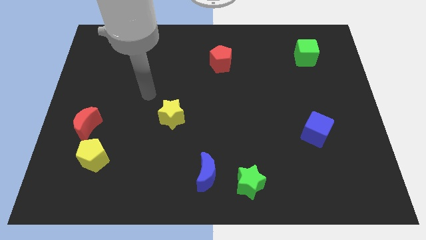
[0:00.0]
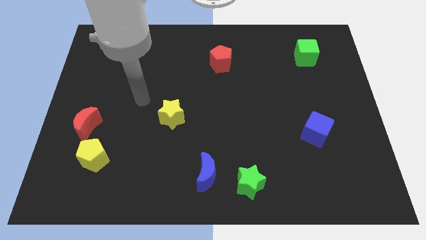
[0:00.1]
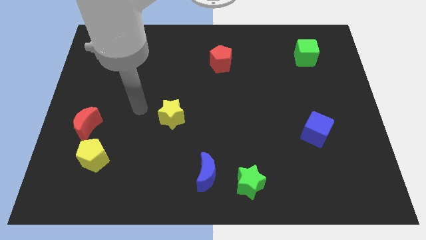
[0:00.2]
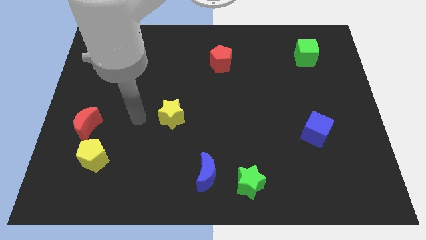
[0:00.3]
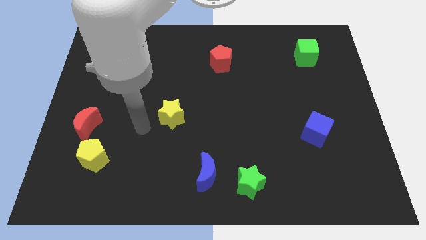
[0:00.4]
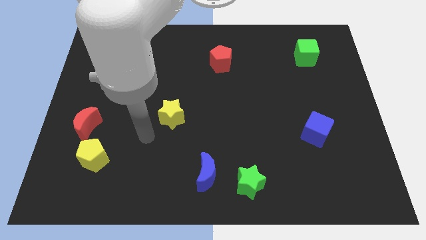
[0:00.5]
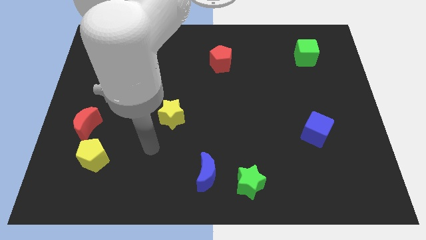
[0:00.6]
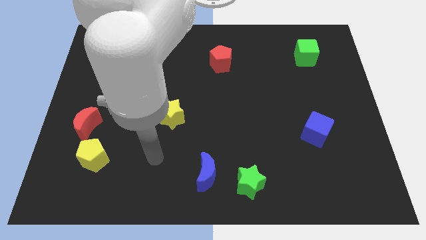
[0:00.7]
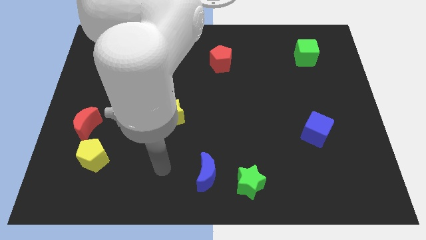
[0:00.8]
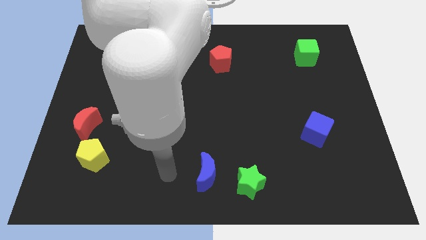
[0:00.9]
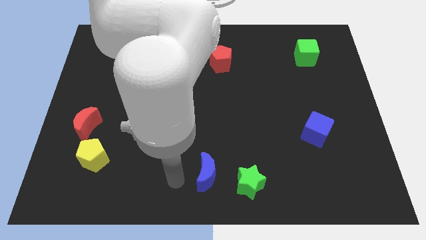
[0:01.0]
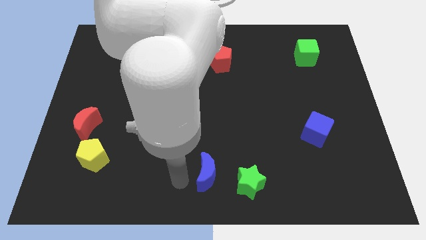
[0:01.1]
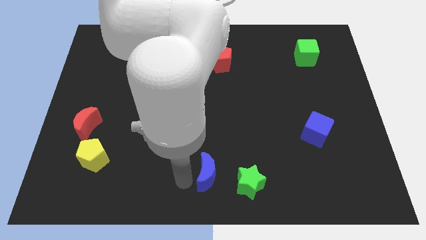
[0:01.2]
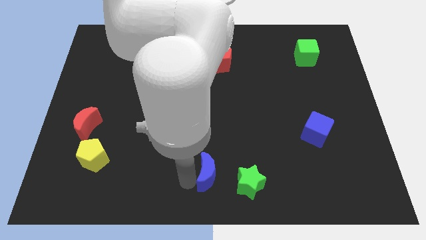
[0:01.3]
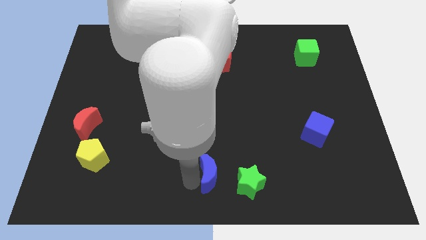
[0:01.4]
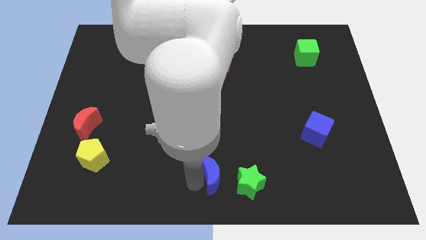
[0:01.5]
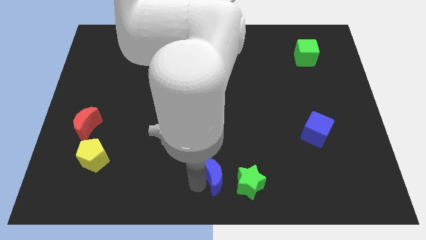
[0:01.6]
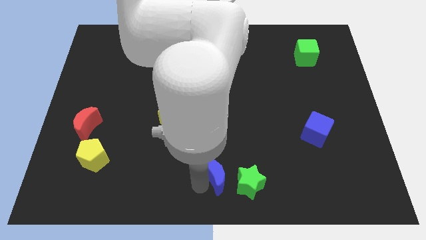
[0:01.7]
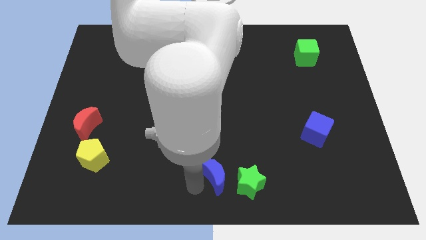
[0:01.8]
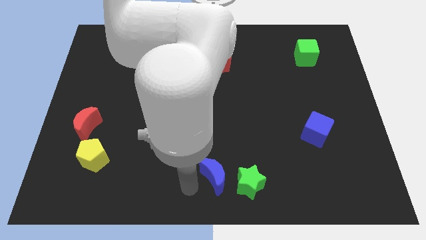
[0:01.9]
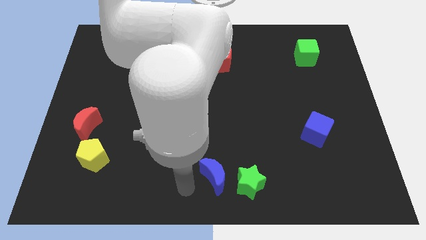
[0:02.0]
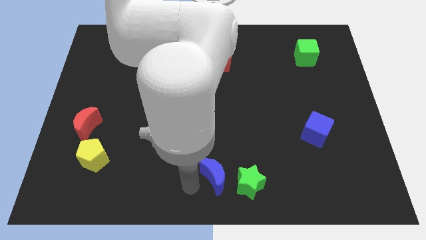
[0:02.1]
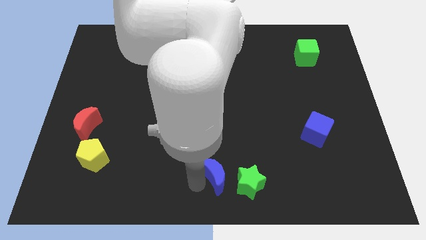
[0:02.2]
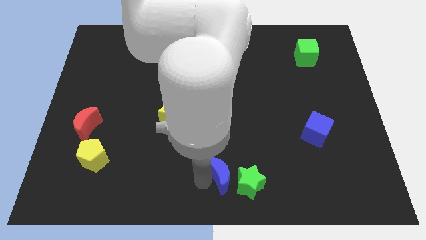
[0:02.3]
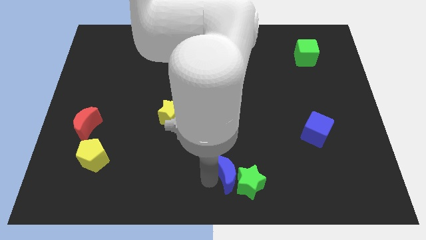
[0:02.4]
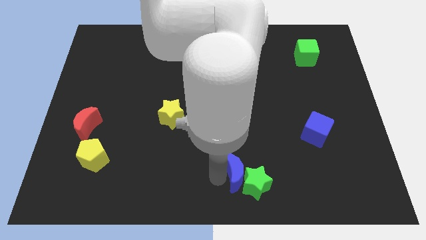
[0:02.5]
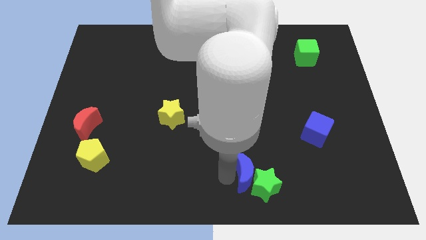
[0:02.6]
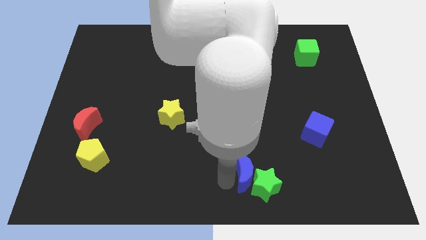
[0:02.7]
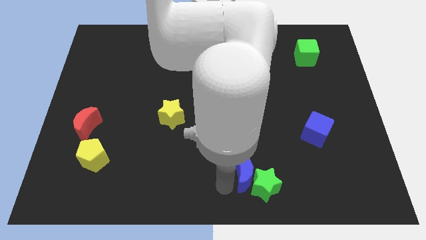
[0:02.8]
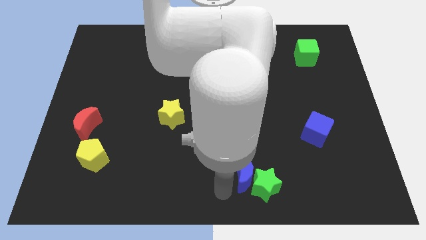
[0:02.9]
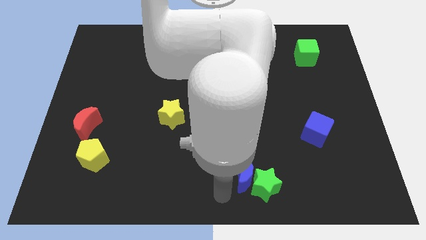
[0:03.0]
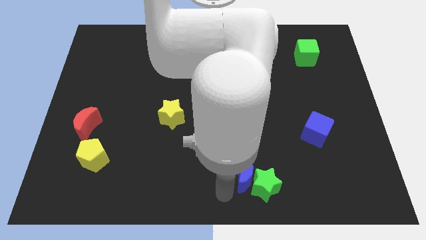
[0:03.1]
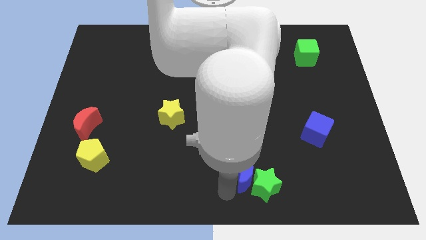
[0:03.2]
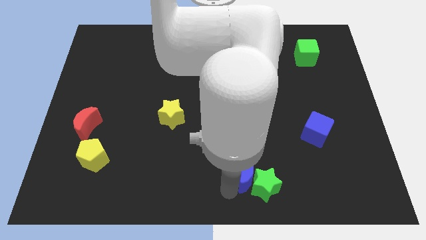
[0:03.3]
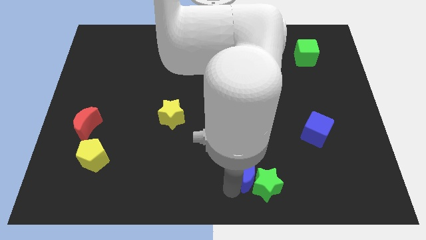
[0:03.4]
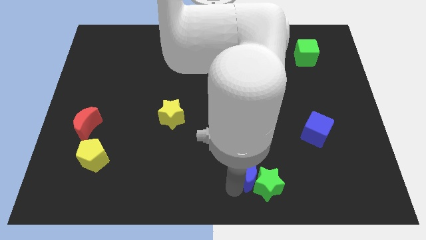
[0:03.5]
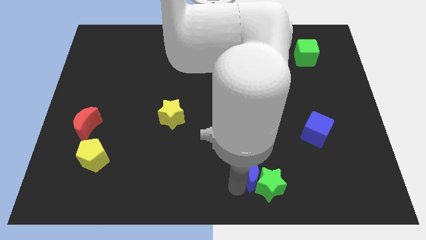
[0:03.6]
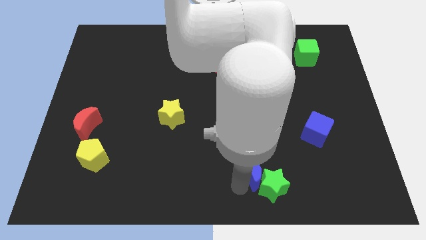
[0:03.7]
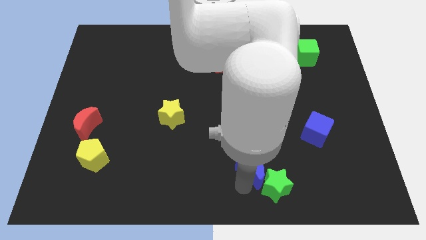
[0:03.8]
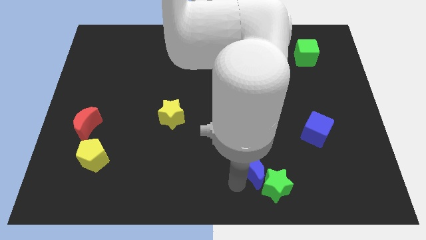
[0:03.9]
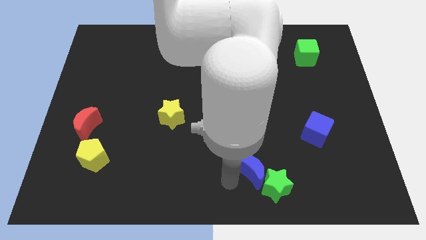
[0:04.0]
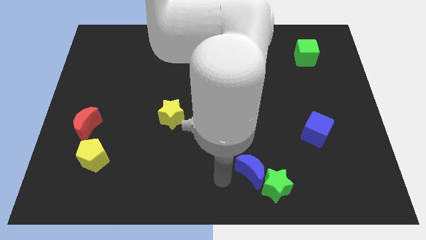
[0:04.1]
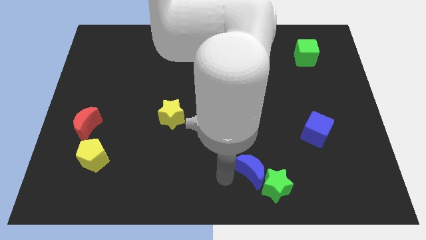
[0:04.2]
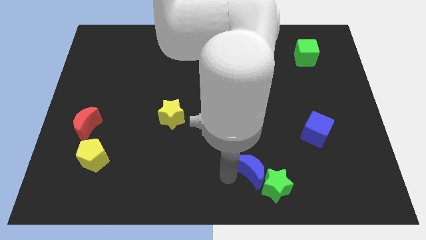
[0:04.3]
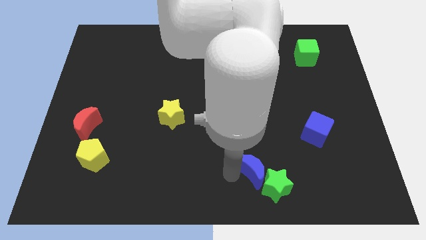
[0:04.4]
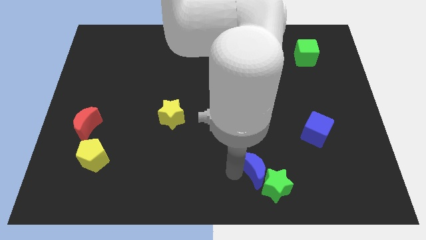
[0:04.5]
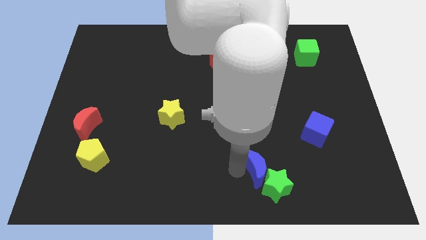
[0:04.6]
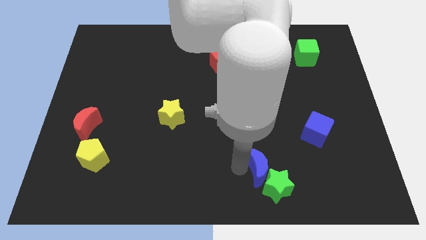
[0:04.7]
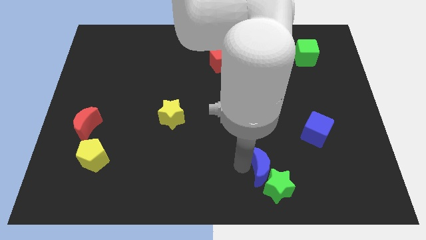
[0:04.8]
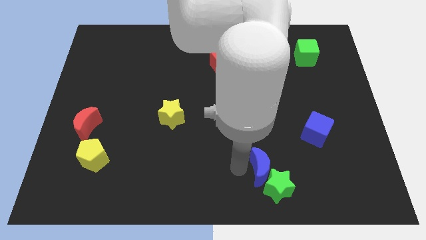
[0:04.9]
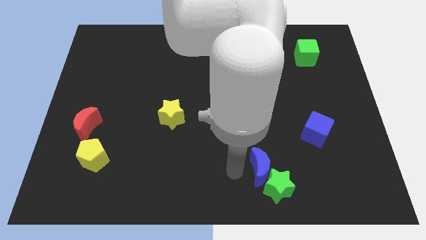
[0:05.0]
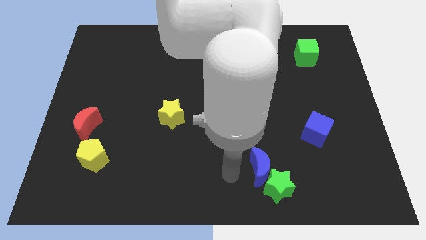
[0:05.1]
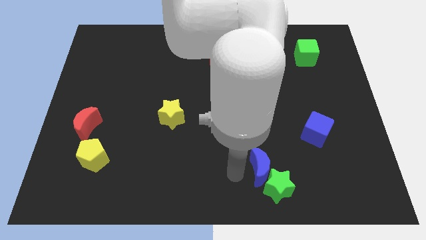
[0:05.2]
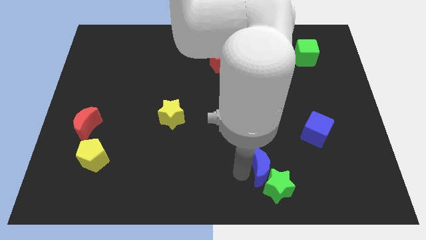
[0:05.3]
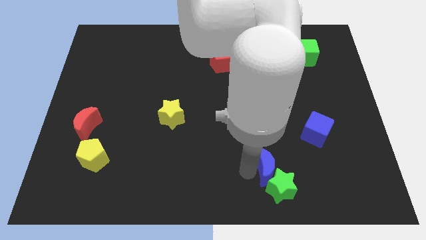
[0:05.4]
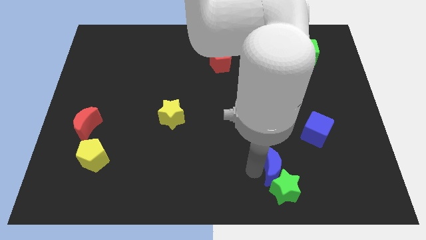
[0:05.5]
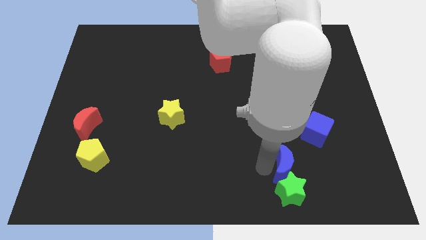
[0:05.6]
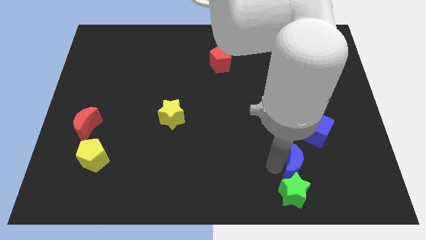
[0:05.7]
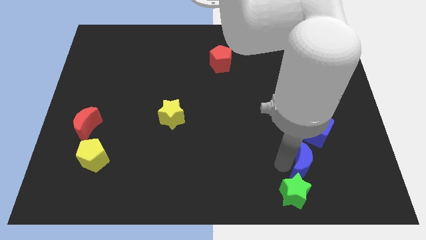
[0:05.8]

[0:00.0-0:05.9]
slide the blue moon to the bottom side of the blue cube

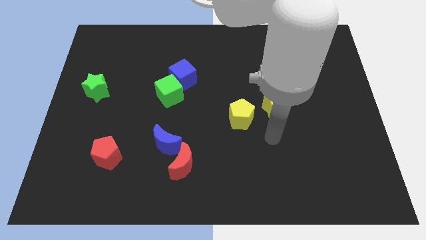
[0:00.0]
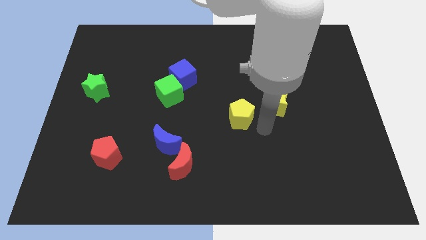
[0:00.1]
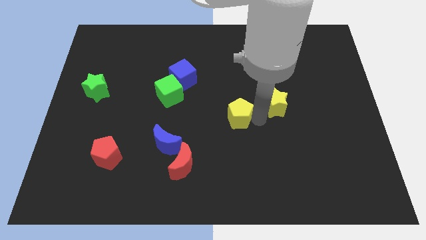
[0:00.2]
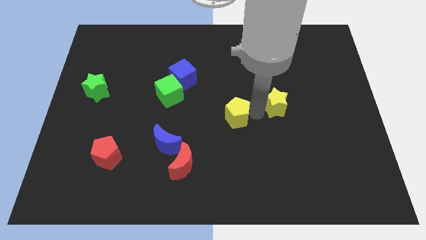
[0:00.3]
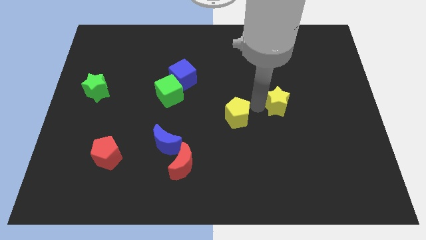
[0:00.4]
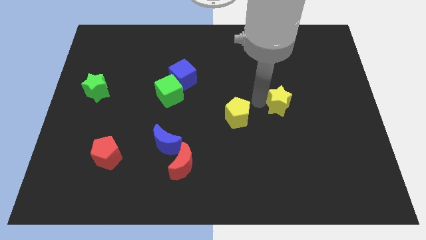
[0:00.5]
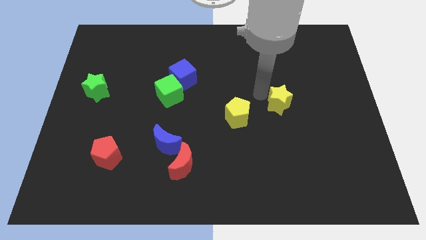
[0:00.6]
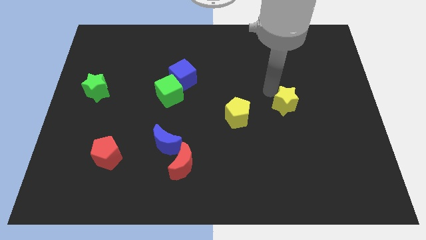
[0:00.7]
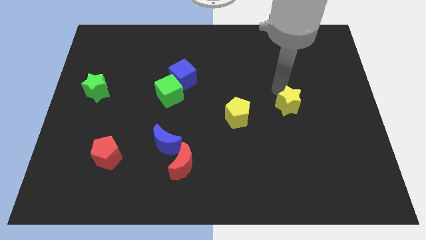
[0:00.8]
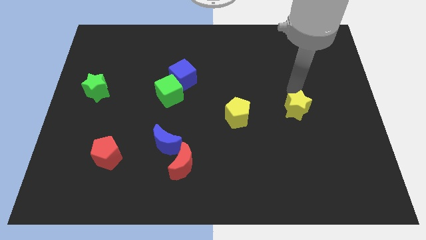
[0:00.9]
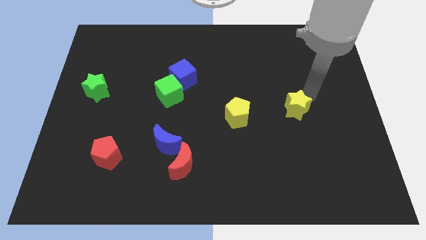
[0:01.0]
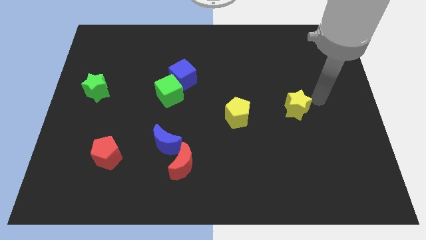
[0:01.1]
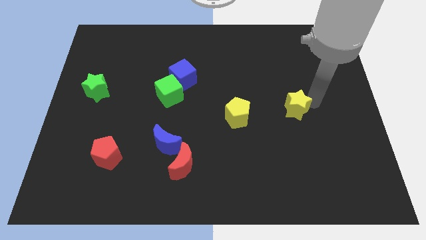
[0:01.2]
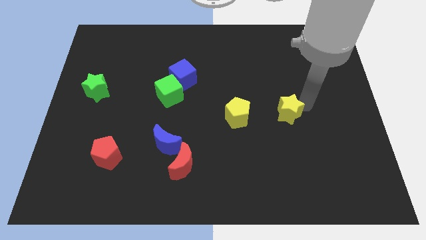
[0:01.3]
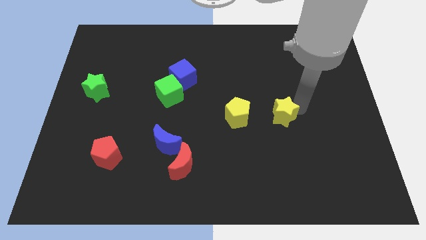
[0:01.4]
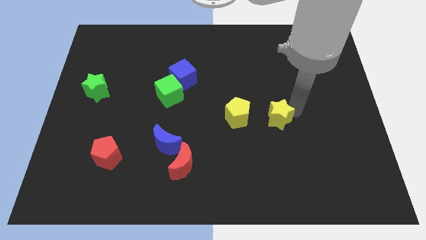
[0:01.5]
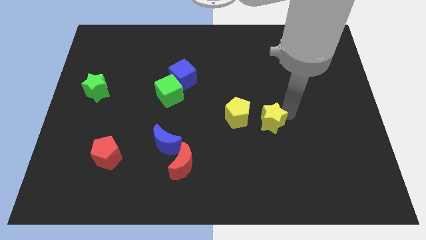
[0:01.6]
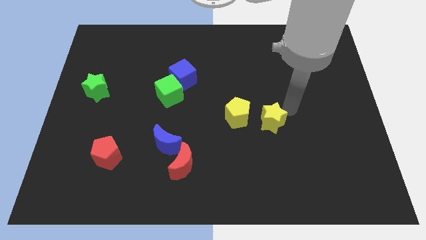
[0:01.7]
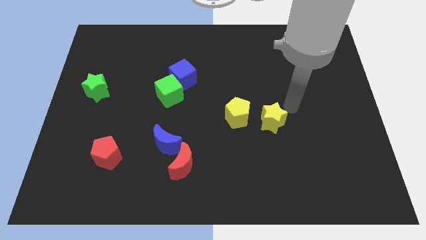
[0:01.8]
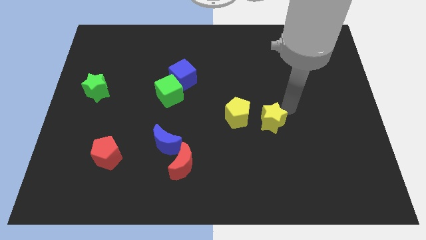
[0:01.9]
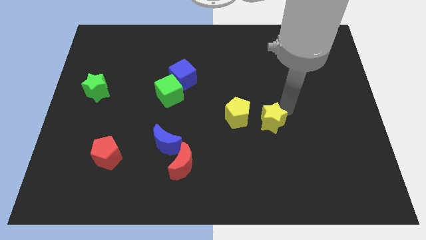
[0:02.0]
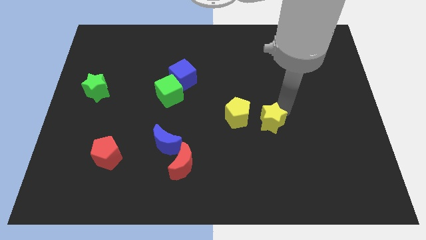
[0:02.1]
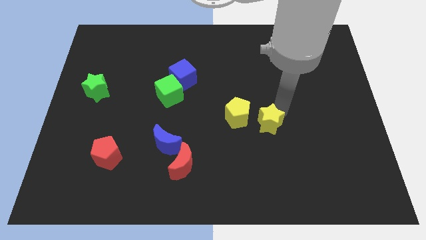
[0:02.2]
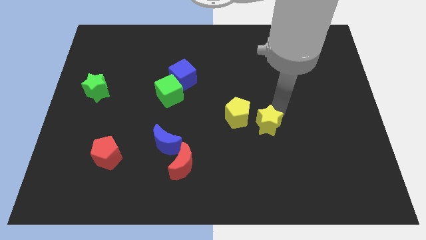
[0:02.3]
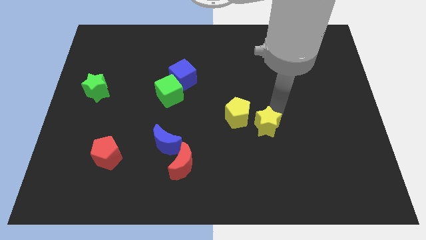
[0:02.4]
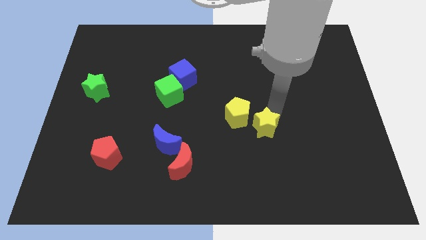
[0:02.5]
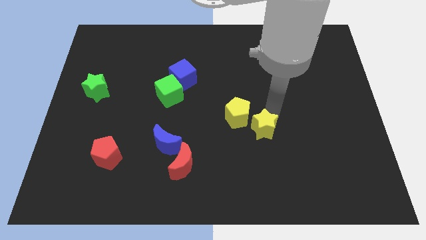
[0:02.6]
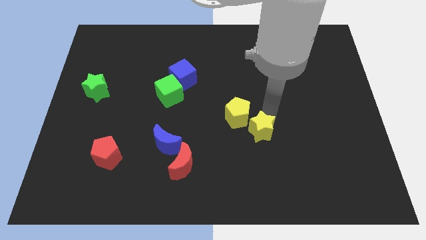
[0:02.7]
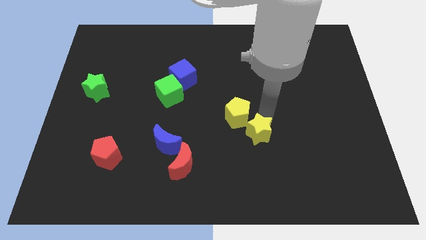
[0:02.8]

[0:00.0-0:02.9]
push the yellow star below the yellow pentagon
